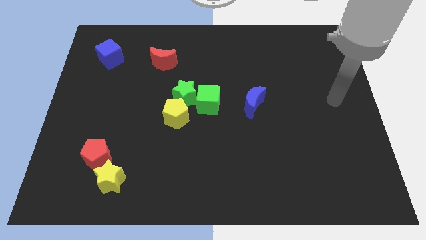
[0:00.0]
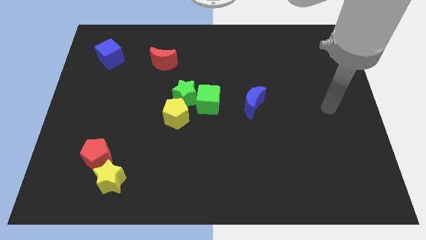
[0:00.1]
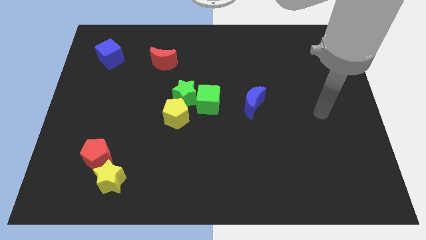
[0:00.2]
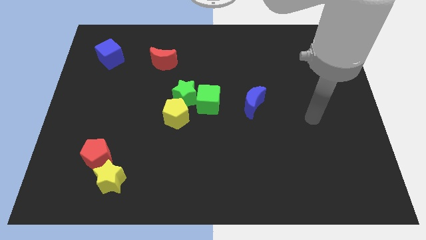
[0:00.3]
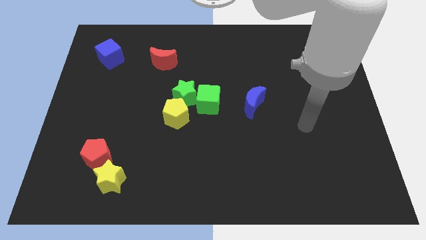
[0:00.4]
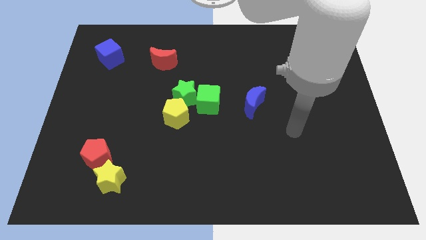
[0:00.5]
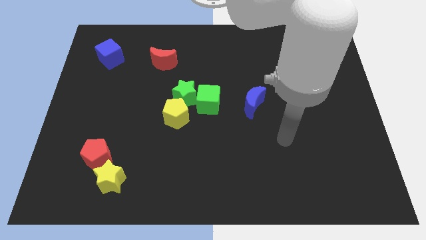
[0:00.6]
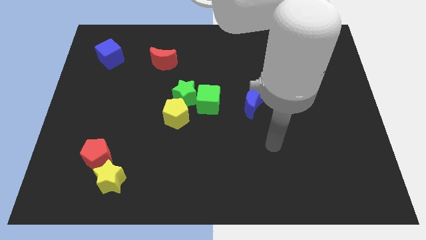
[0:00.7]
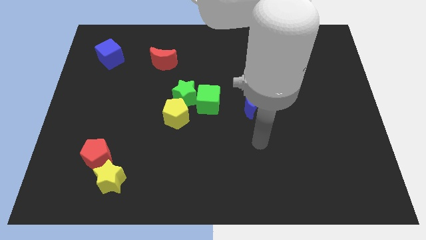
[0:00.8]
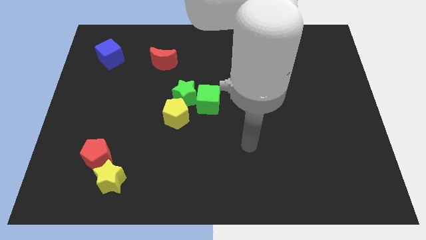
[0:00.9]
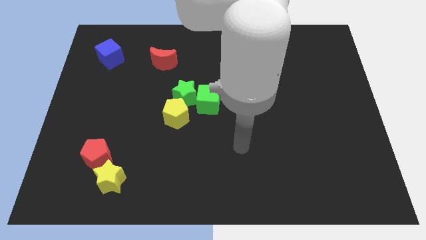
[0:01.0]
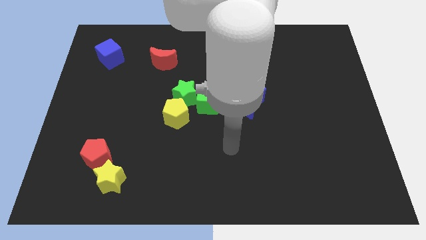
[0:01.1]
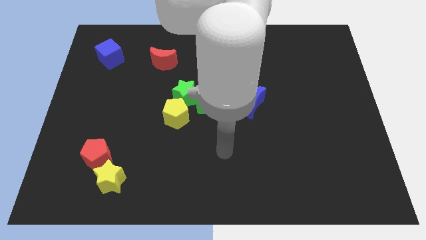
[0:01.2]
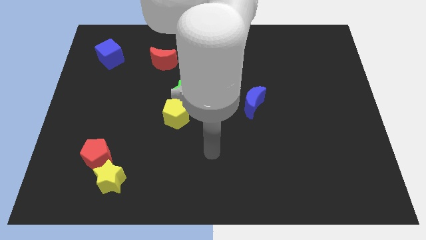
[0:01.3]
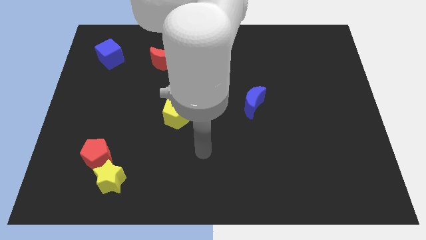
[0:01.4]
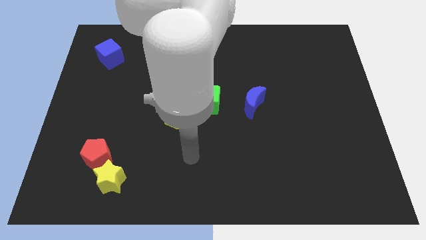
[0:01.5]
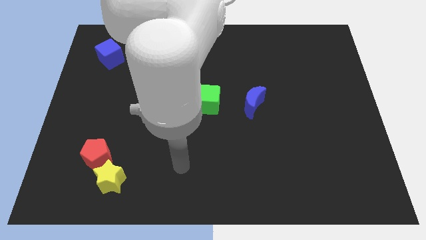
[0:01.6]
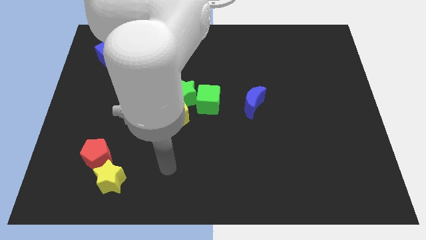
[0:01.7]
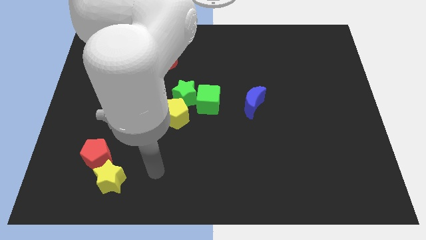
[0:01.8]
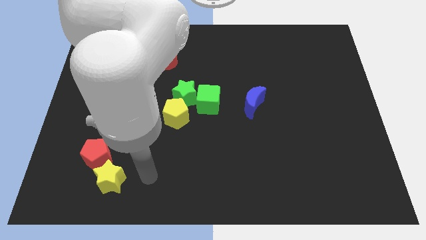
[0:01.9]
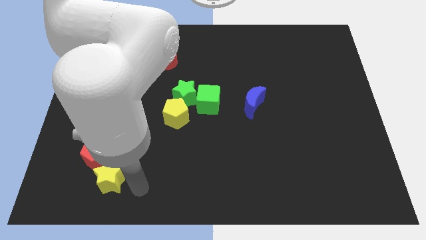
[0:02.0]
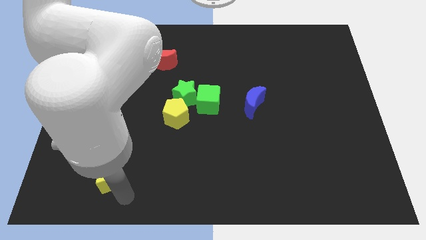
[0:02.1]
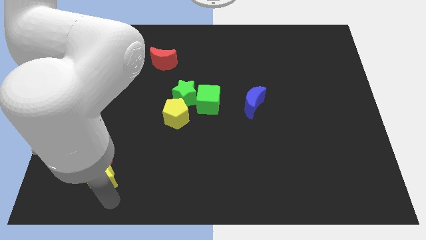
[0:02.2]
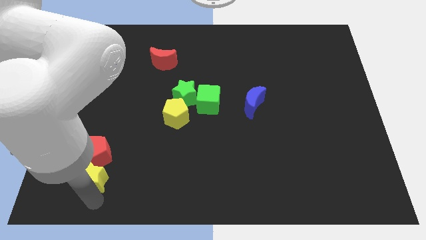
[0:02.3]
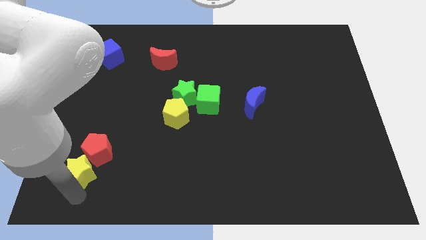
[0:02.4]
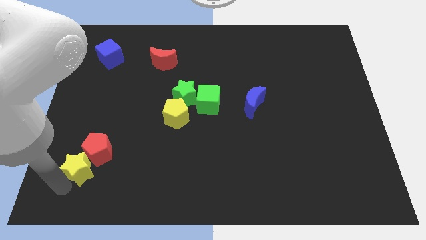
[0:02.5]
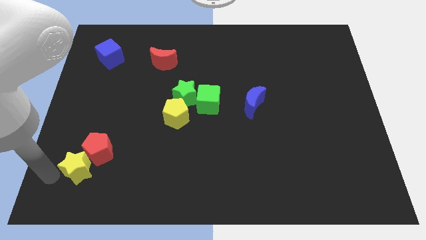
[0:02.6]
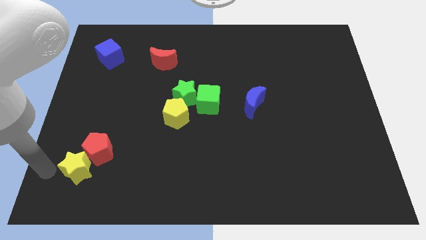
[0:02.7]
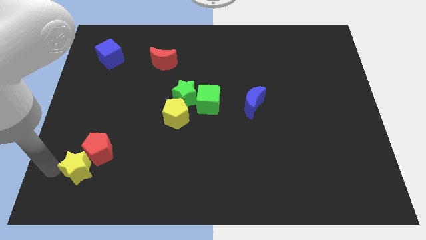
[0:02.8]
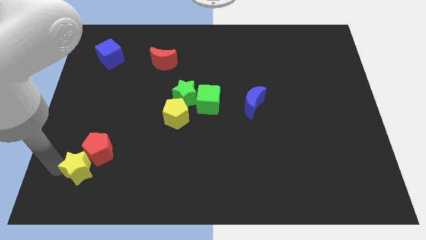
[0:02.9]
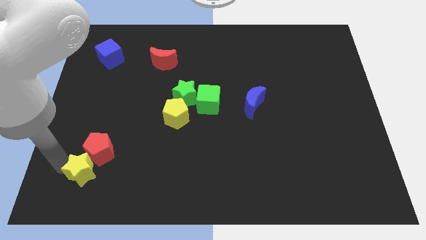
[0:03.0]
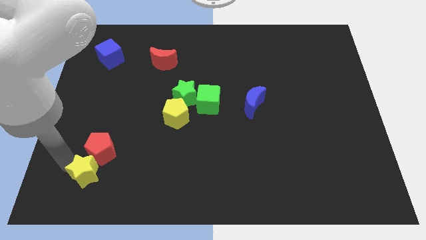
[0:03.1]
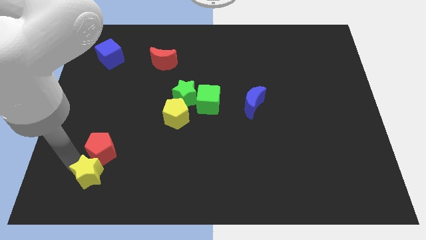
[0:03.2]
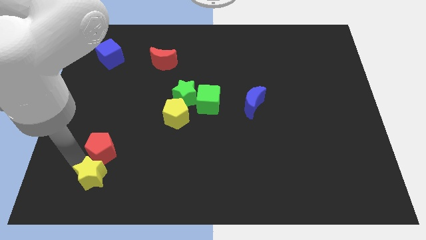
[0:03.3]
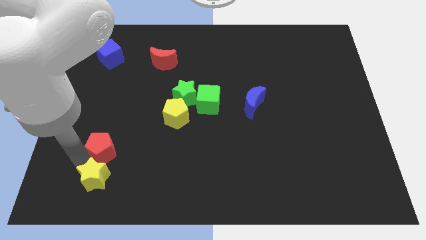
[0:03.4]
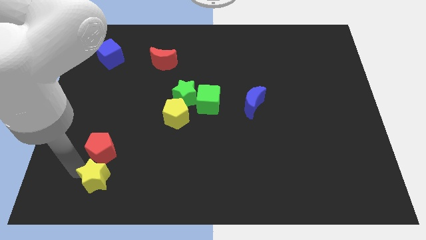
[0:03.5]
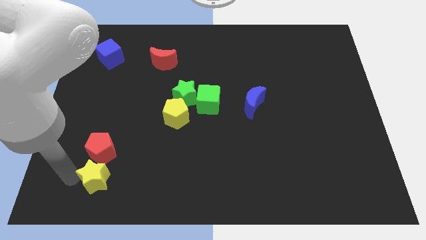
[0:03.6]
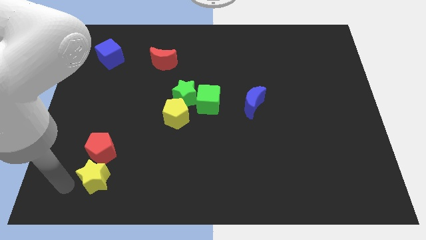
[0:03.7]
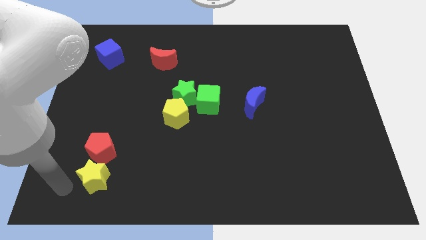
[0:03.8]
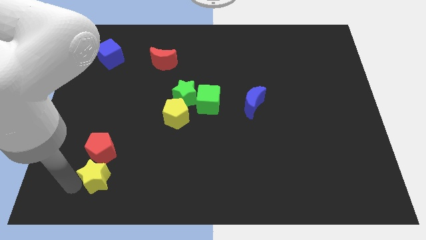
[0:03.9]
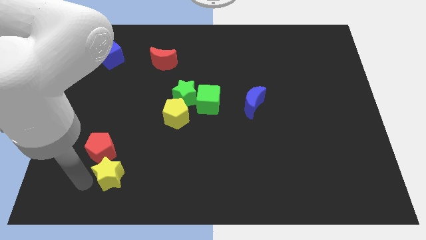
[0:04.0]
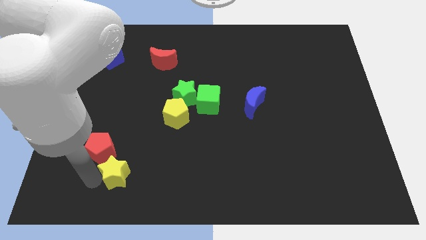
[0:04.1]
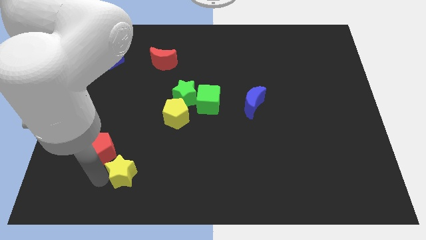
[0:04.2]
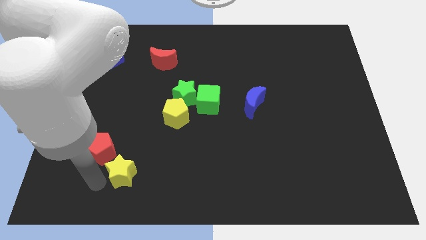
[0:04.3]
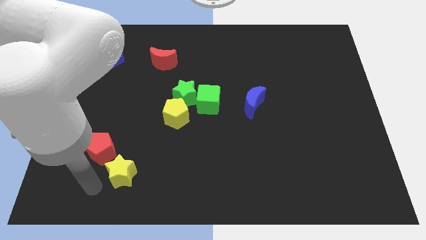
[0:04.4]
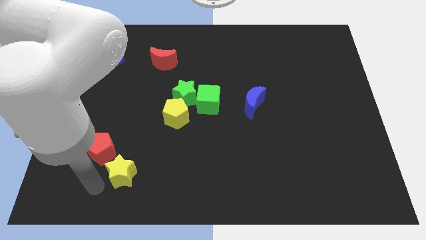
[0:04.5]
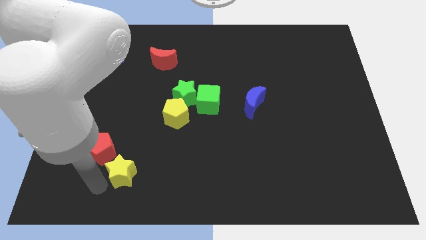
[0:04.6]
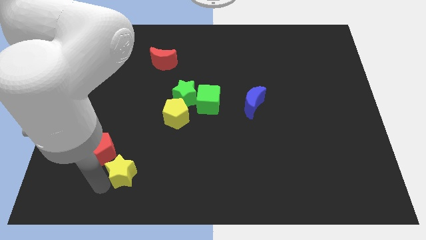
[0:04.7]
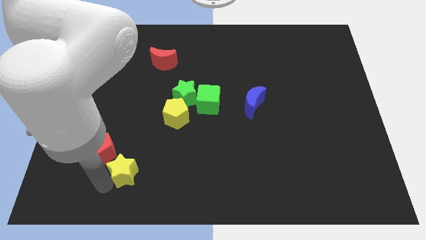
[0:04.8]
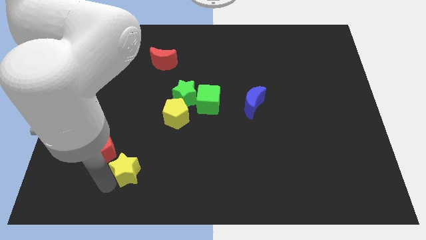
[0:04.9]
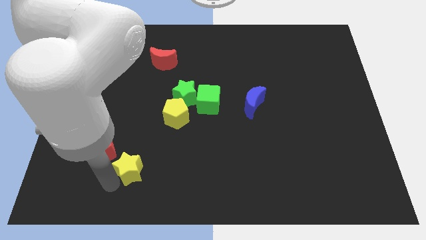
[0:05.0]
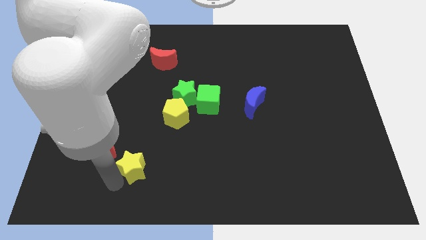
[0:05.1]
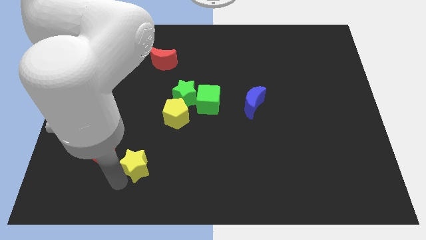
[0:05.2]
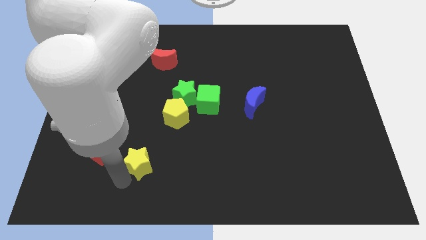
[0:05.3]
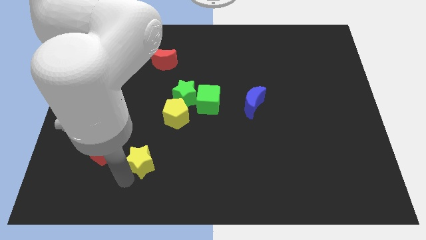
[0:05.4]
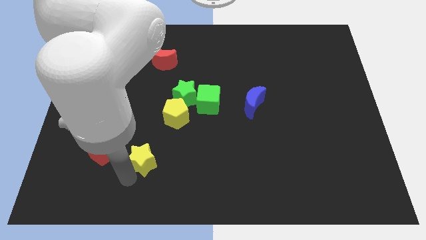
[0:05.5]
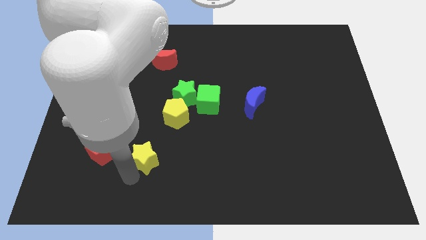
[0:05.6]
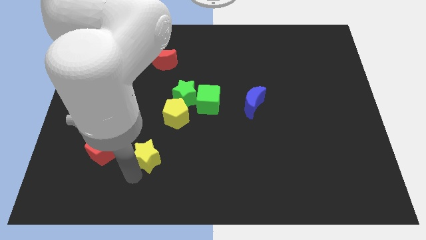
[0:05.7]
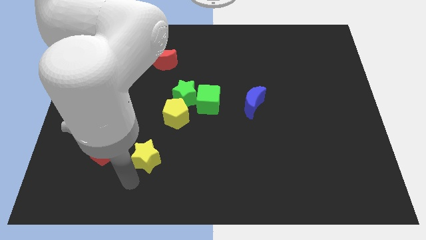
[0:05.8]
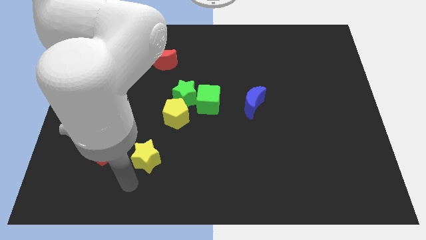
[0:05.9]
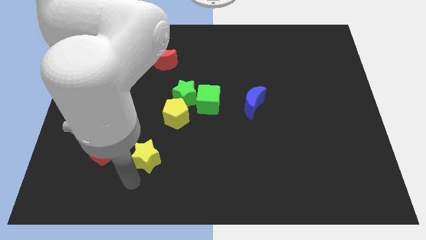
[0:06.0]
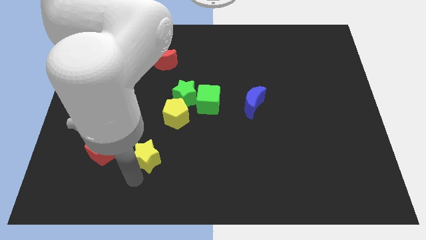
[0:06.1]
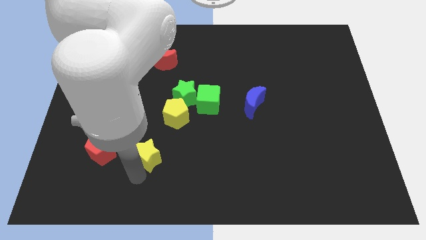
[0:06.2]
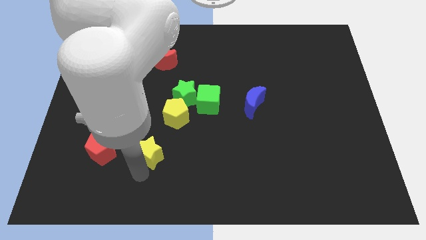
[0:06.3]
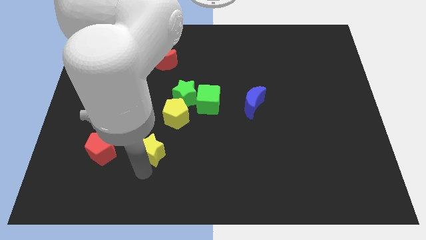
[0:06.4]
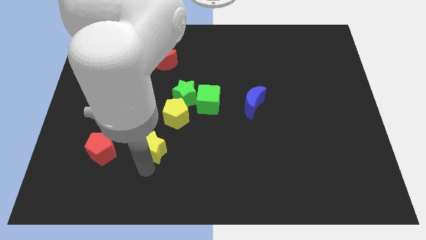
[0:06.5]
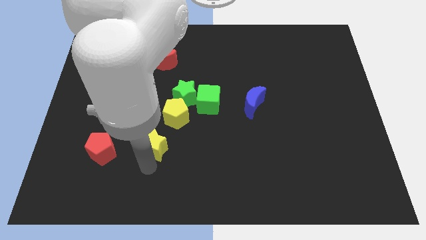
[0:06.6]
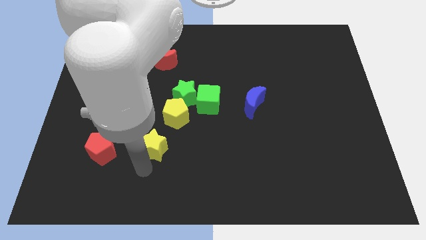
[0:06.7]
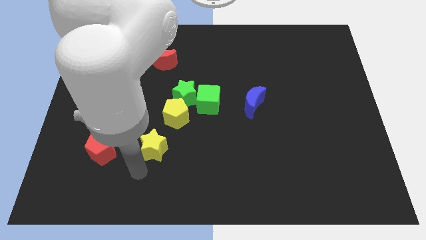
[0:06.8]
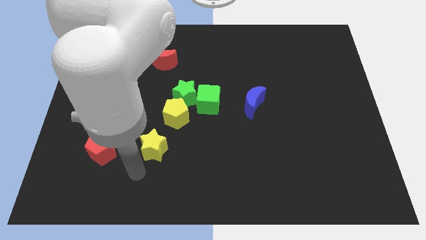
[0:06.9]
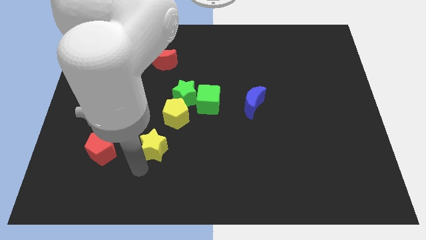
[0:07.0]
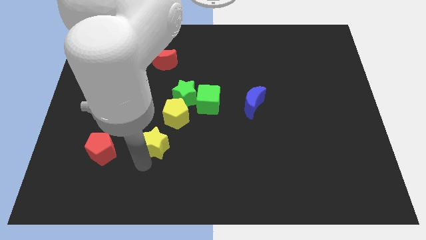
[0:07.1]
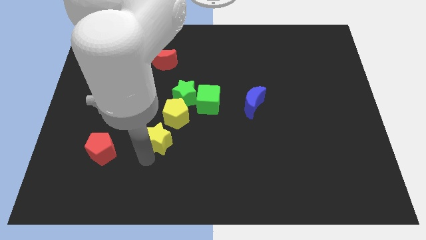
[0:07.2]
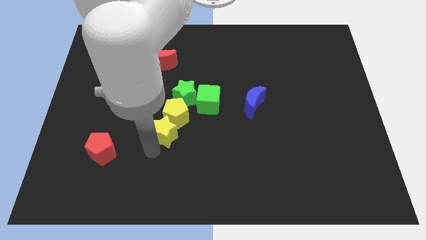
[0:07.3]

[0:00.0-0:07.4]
slide the yellow star close to the yellow pentagon
